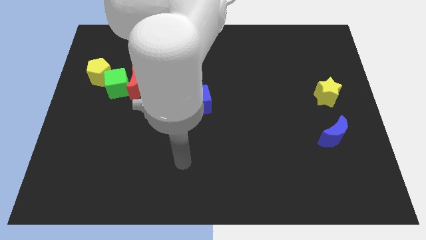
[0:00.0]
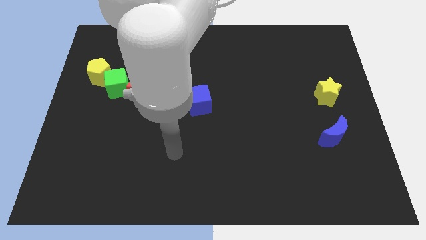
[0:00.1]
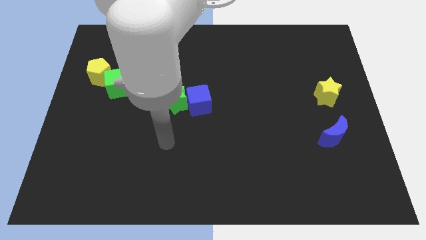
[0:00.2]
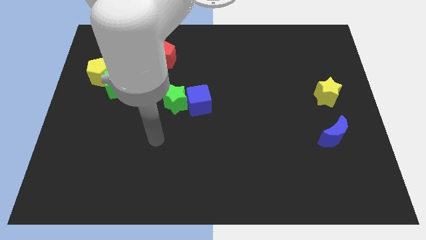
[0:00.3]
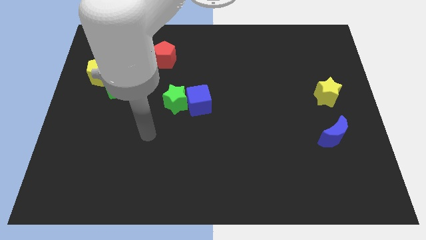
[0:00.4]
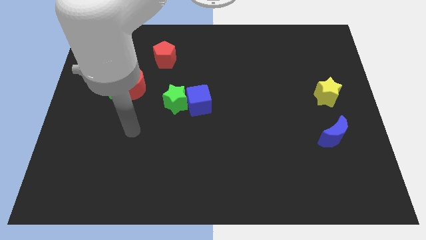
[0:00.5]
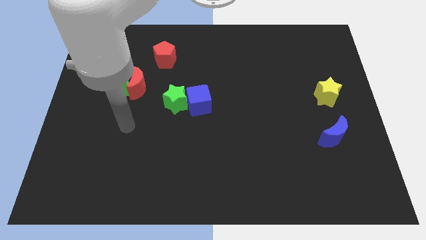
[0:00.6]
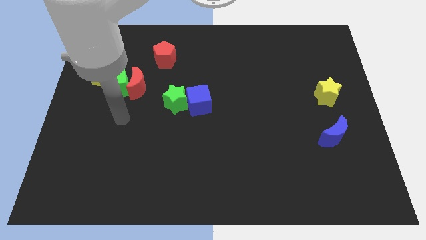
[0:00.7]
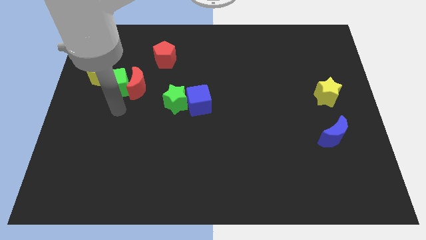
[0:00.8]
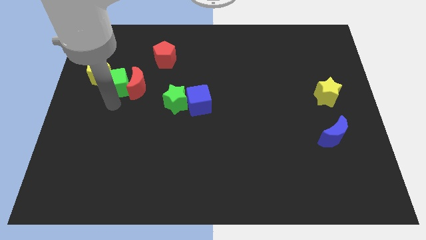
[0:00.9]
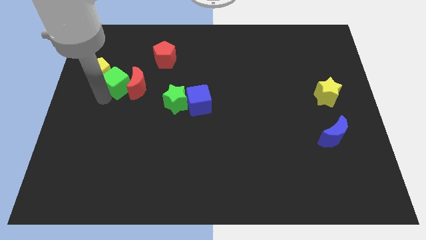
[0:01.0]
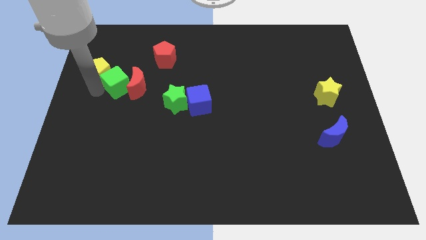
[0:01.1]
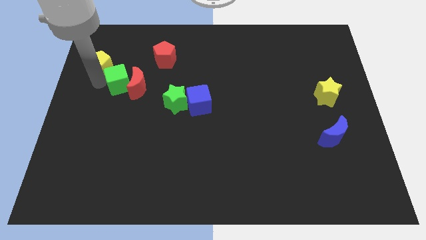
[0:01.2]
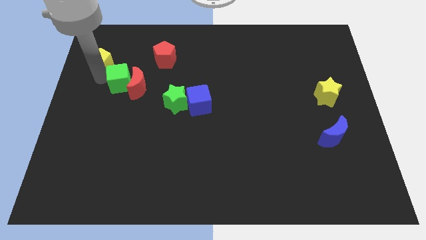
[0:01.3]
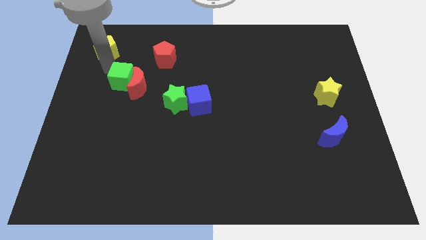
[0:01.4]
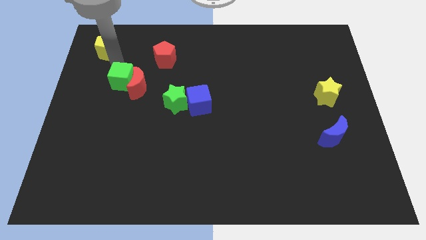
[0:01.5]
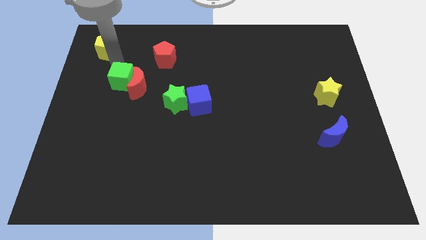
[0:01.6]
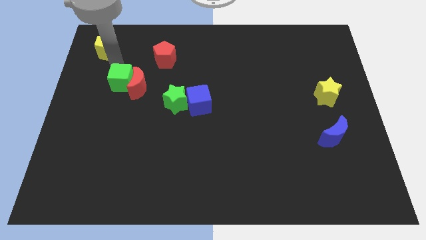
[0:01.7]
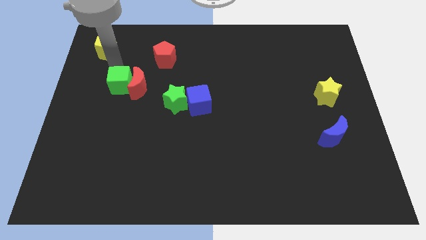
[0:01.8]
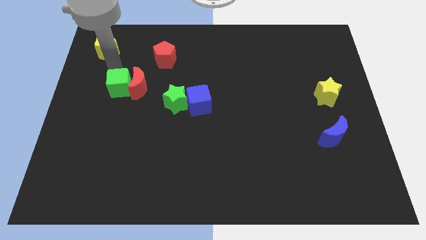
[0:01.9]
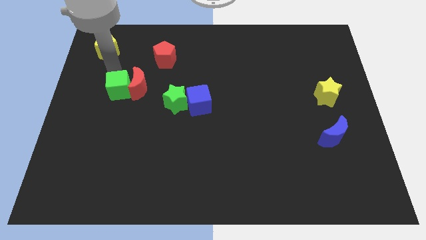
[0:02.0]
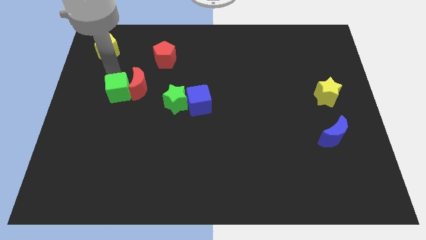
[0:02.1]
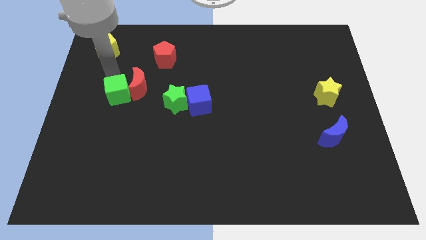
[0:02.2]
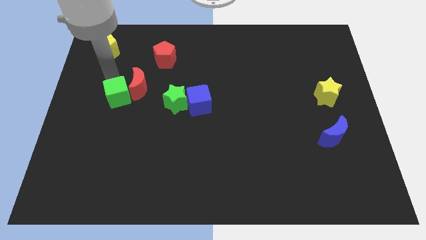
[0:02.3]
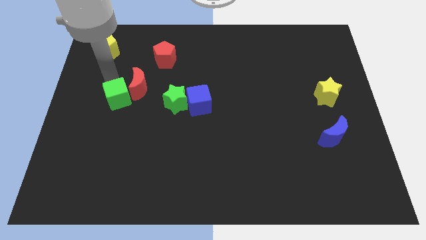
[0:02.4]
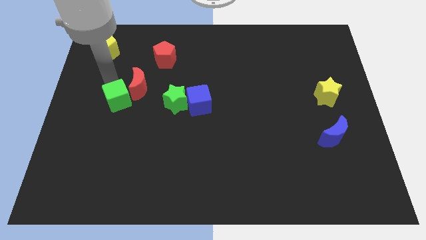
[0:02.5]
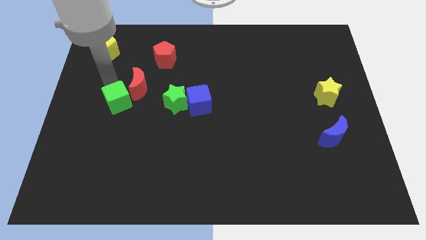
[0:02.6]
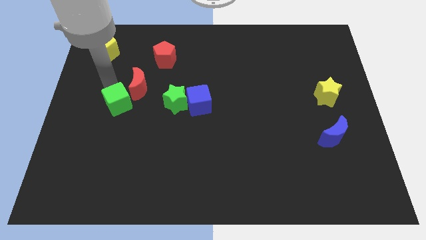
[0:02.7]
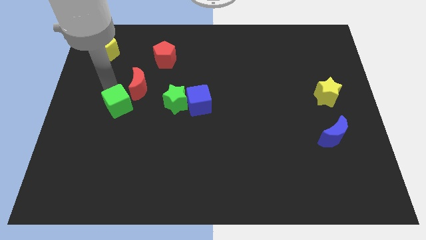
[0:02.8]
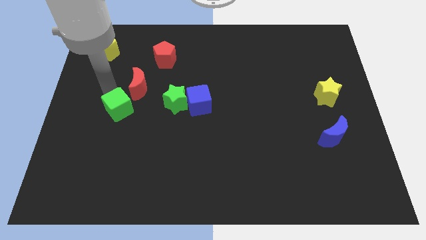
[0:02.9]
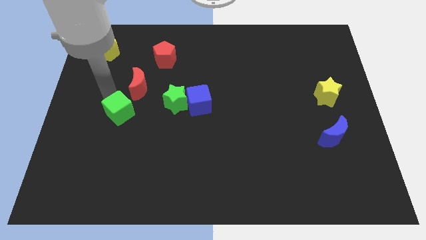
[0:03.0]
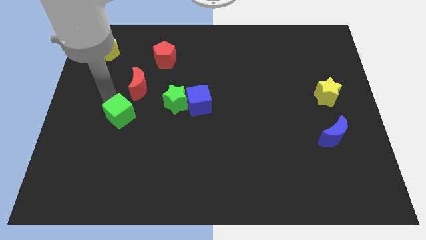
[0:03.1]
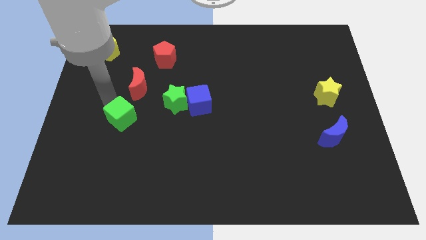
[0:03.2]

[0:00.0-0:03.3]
move the green cube slightly downwards and then right

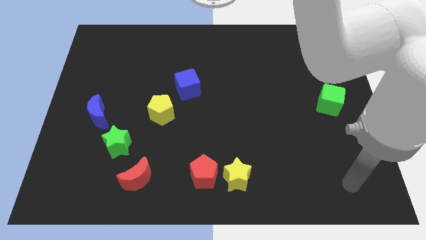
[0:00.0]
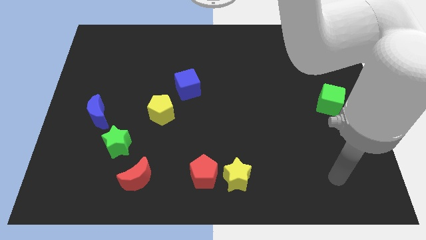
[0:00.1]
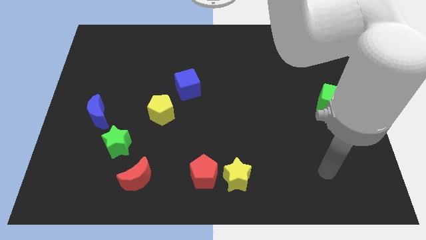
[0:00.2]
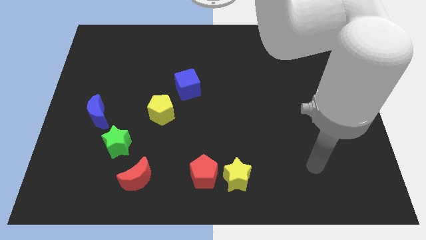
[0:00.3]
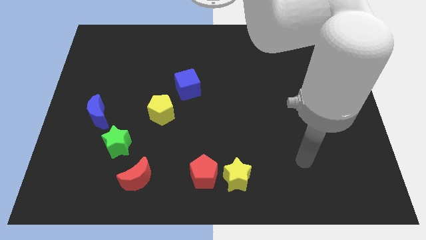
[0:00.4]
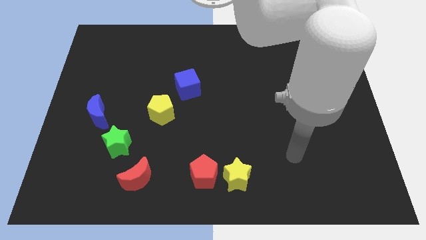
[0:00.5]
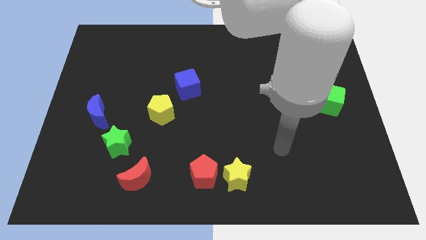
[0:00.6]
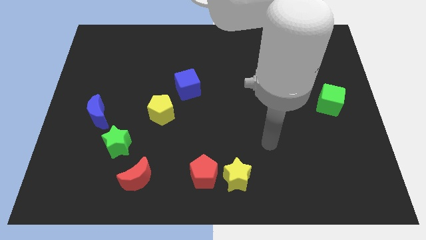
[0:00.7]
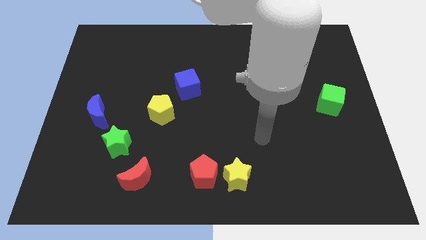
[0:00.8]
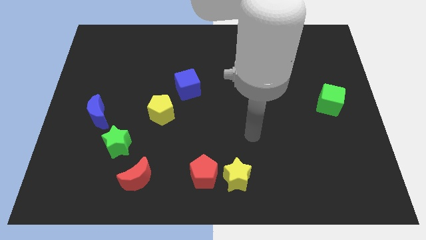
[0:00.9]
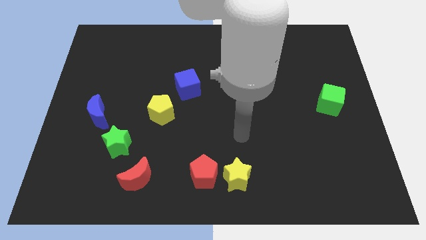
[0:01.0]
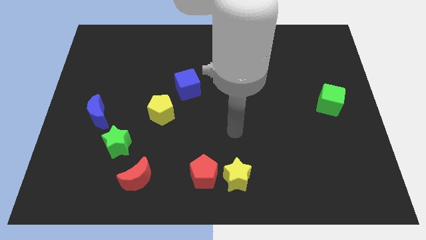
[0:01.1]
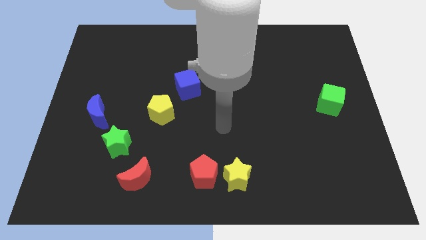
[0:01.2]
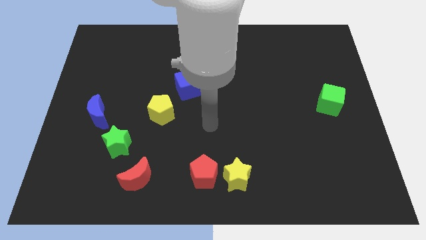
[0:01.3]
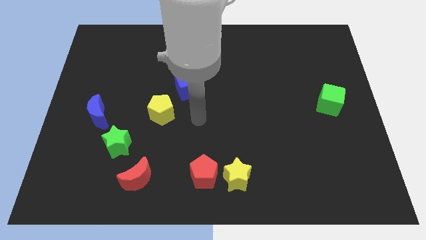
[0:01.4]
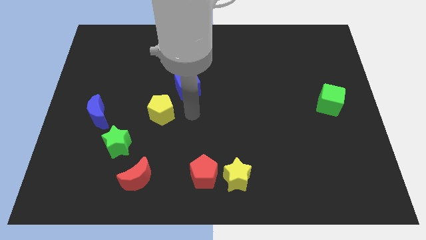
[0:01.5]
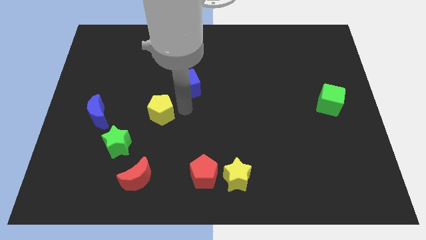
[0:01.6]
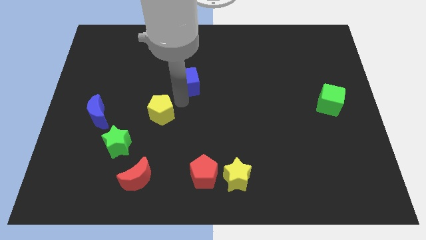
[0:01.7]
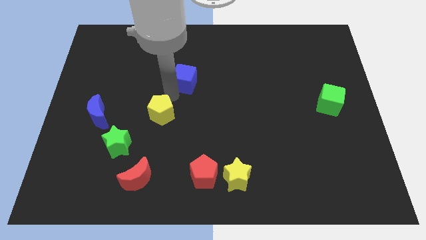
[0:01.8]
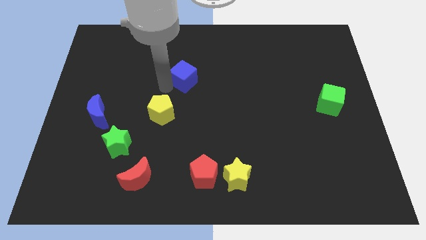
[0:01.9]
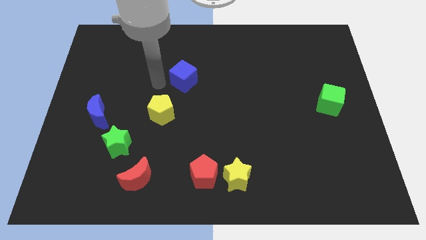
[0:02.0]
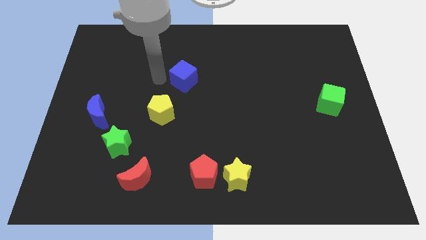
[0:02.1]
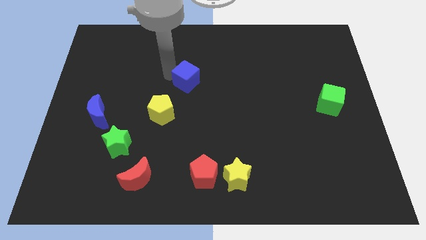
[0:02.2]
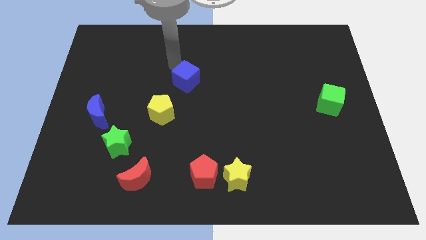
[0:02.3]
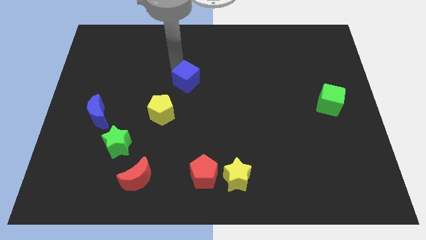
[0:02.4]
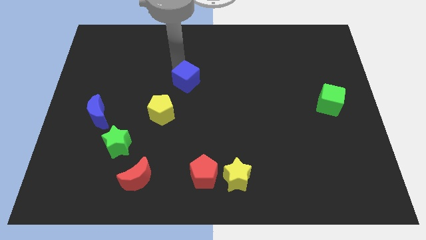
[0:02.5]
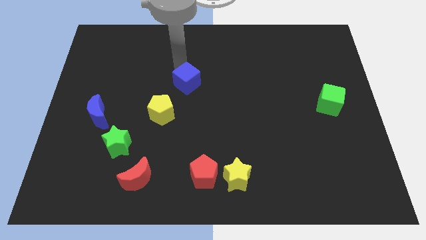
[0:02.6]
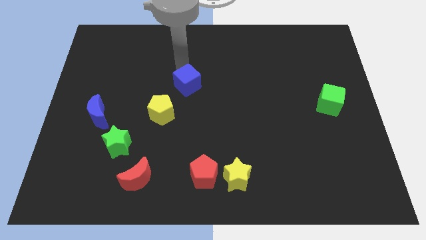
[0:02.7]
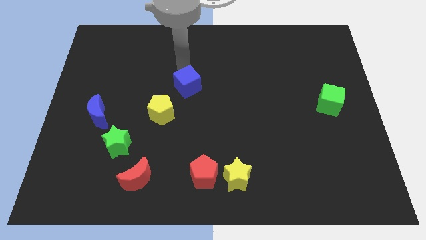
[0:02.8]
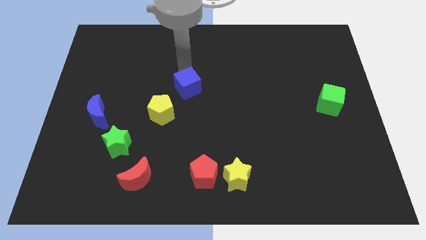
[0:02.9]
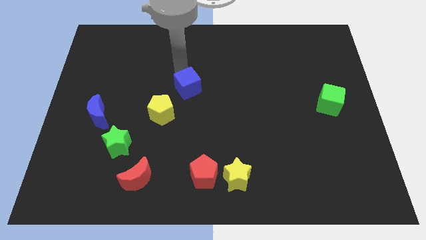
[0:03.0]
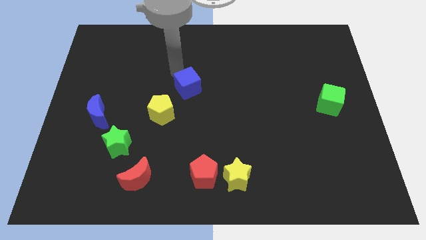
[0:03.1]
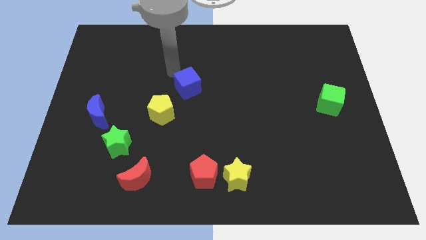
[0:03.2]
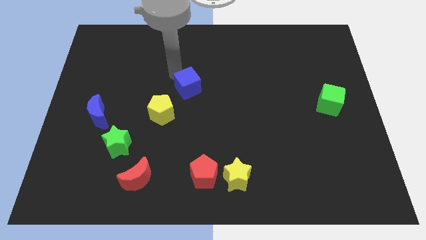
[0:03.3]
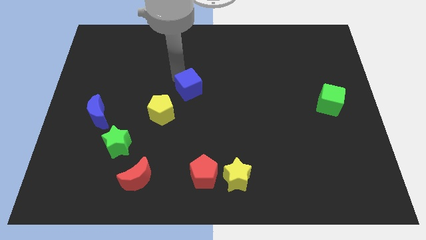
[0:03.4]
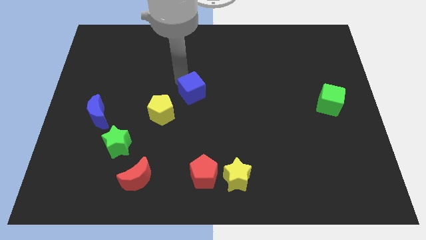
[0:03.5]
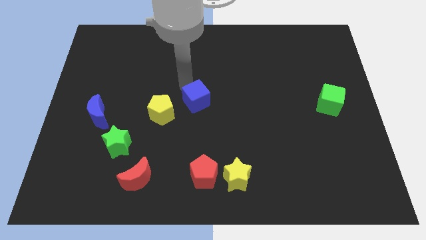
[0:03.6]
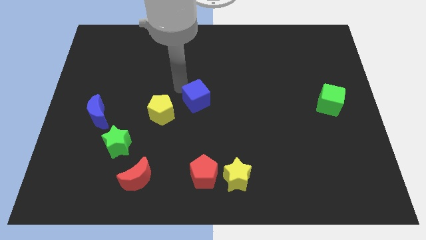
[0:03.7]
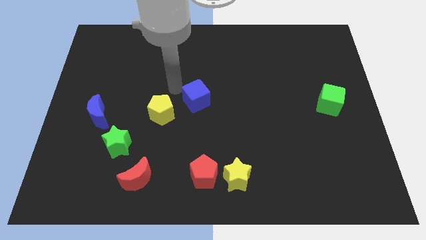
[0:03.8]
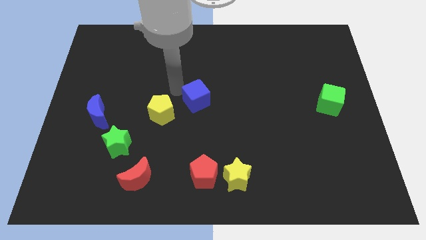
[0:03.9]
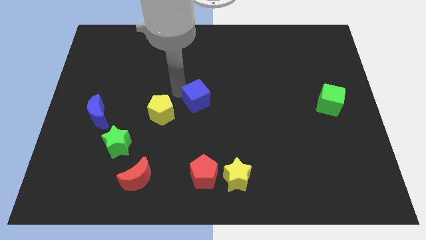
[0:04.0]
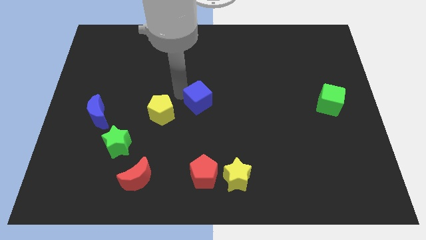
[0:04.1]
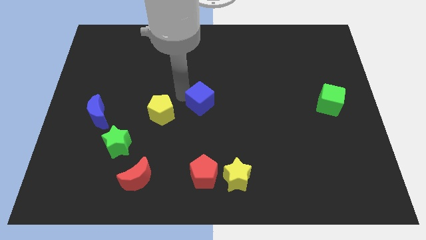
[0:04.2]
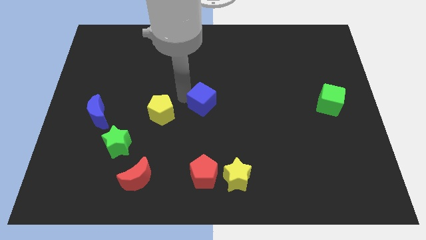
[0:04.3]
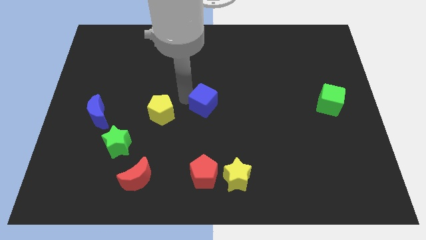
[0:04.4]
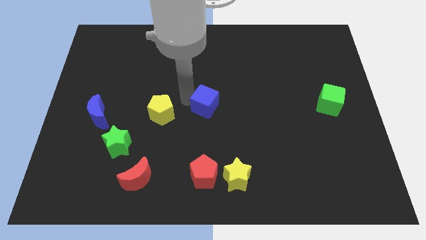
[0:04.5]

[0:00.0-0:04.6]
move the blue cube down and right diagonally a little
